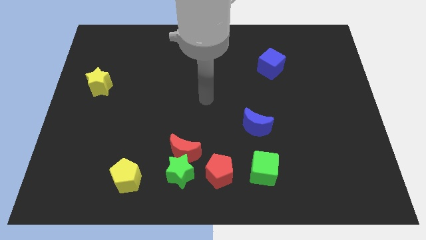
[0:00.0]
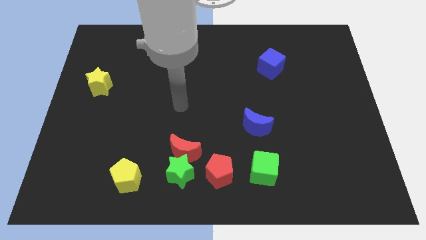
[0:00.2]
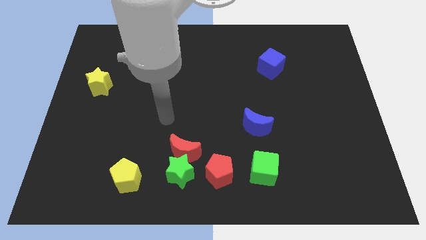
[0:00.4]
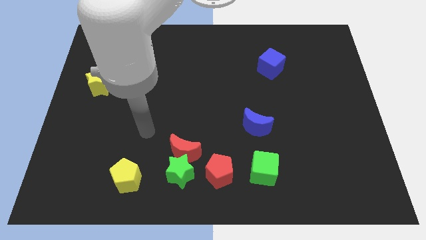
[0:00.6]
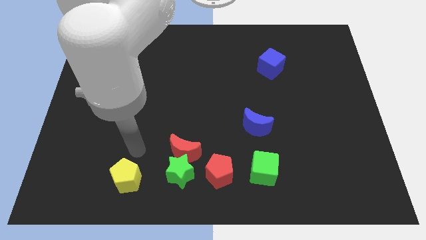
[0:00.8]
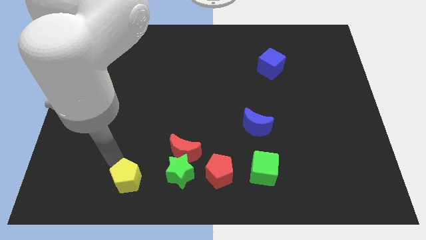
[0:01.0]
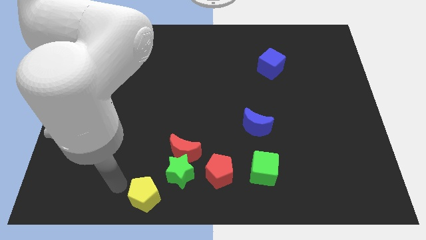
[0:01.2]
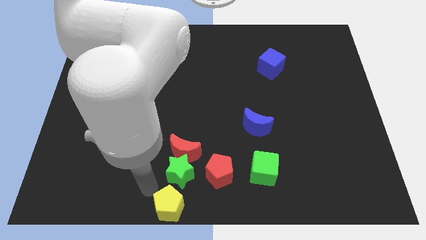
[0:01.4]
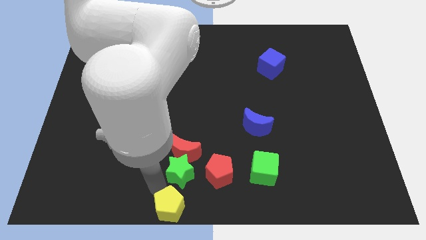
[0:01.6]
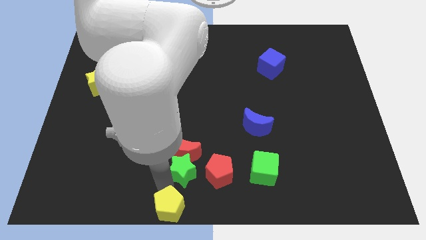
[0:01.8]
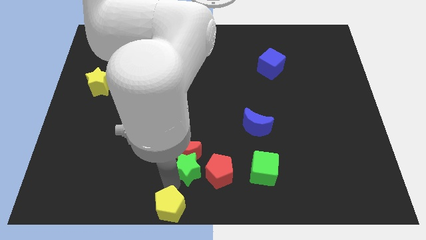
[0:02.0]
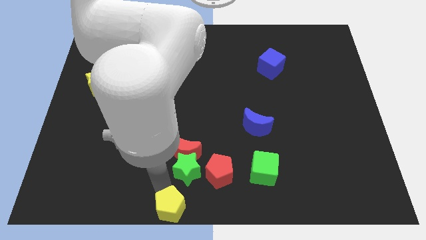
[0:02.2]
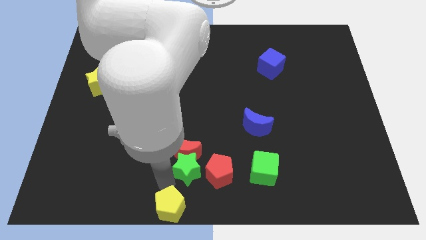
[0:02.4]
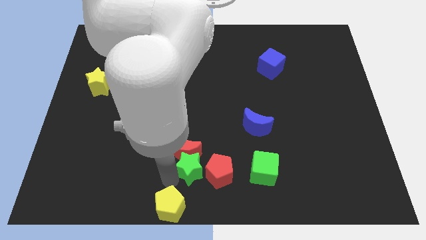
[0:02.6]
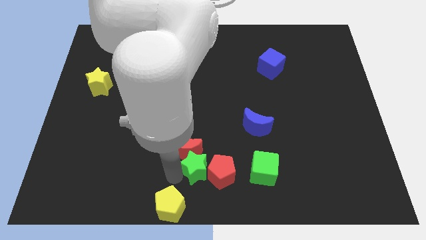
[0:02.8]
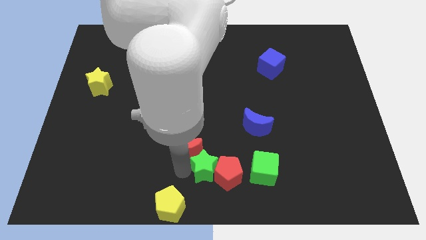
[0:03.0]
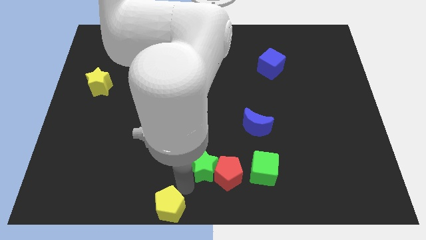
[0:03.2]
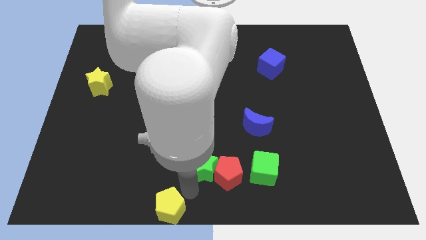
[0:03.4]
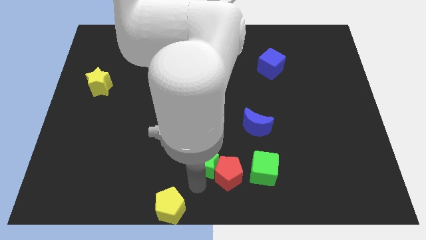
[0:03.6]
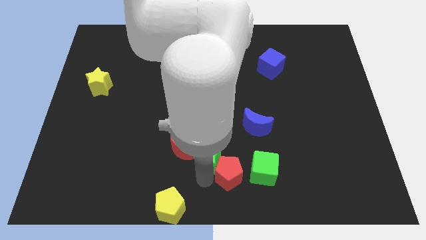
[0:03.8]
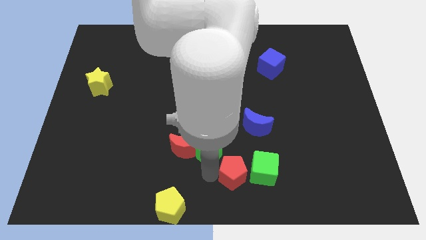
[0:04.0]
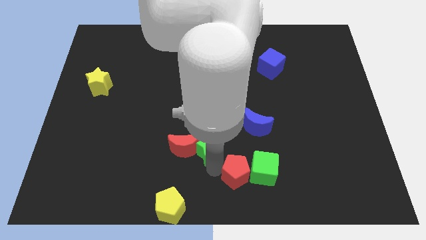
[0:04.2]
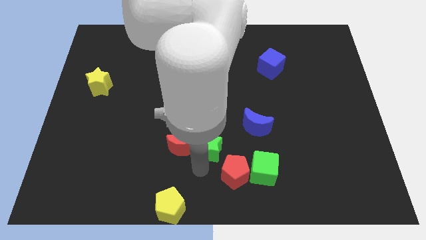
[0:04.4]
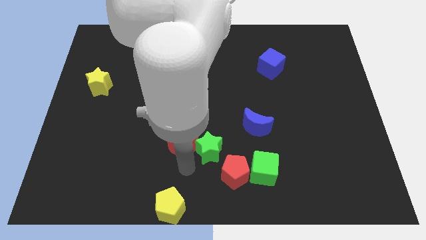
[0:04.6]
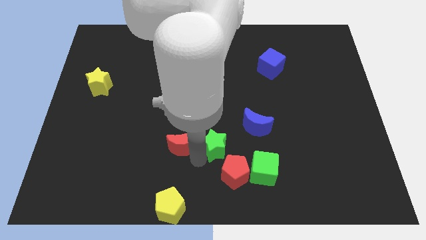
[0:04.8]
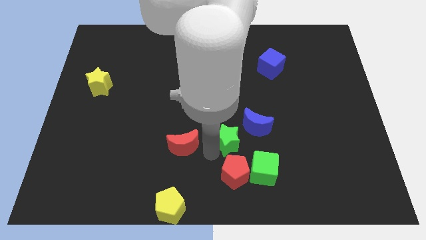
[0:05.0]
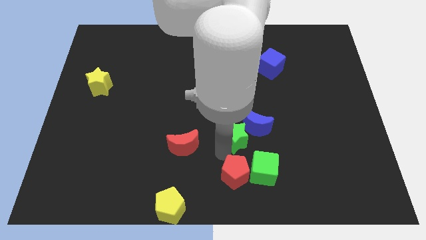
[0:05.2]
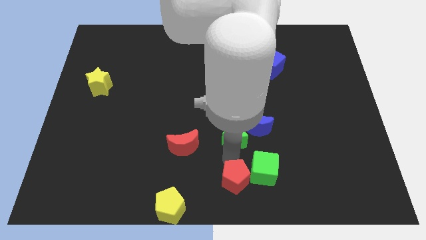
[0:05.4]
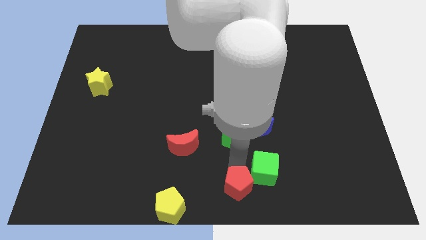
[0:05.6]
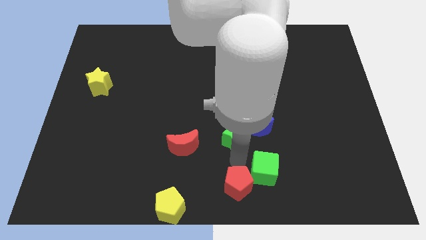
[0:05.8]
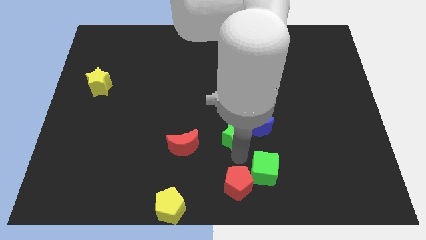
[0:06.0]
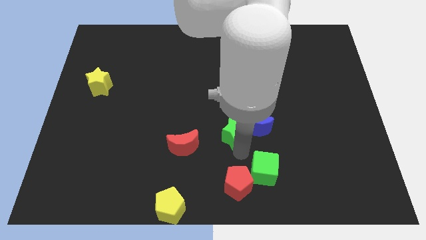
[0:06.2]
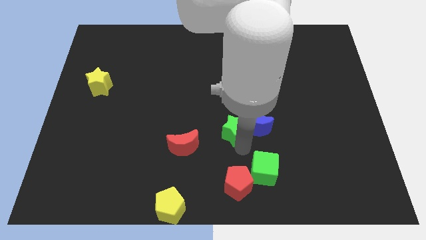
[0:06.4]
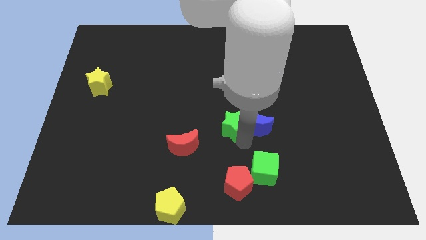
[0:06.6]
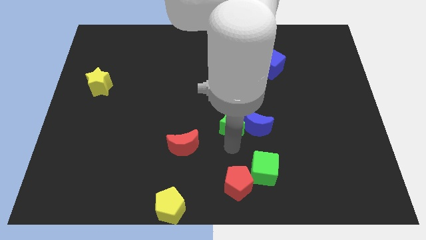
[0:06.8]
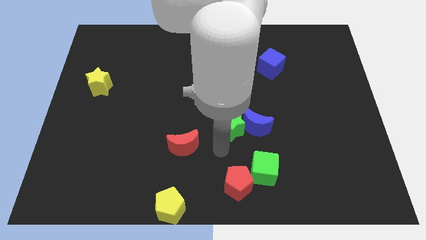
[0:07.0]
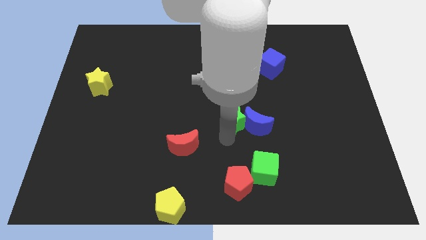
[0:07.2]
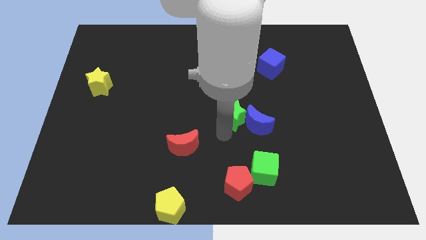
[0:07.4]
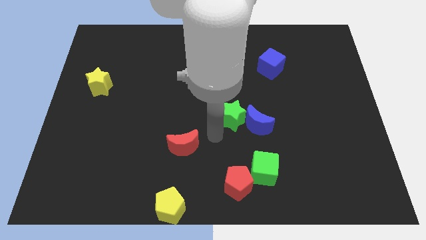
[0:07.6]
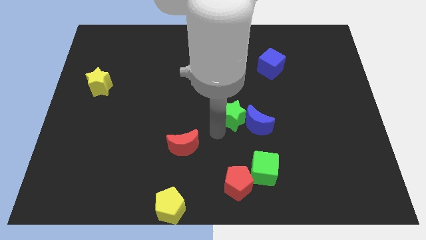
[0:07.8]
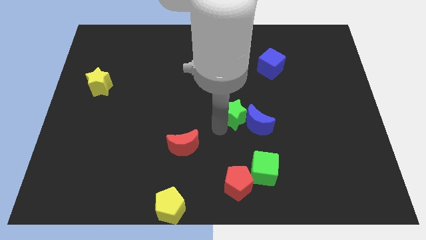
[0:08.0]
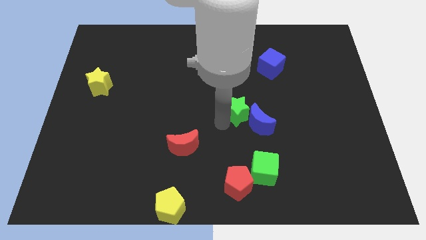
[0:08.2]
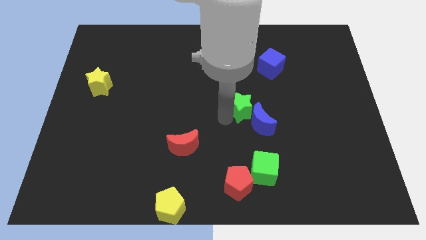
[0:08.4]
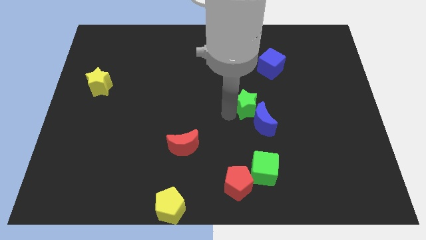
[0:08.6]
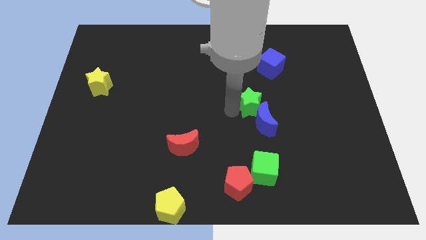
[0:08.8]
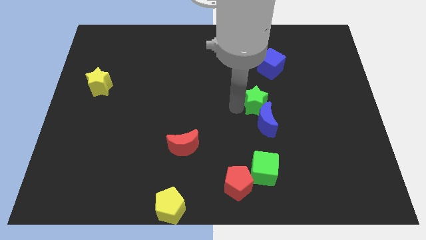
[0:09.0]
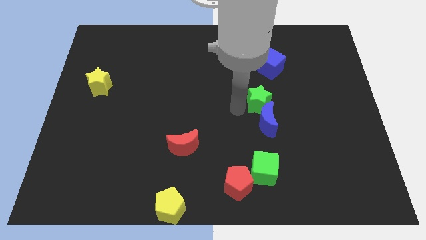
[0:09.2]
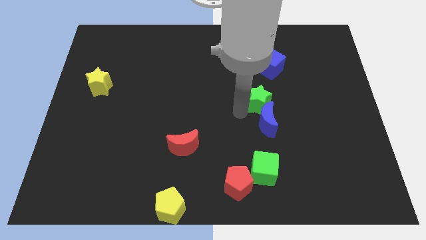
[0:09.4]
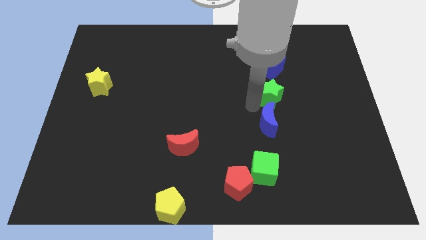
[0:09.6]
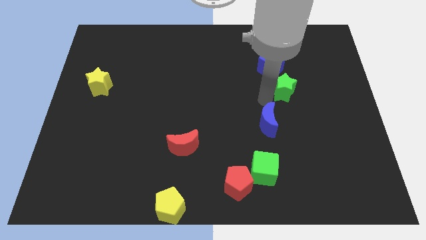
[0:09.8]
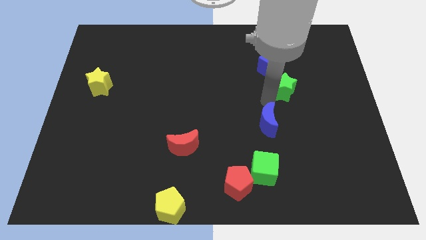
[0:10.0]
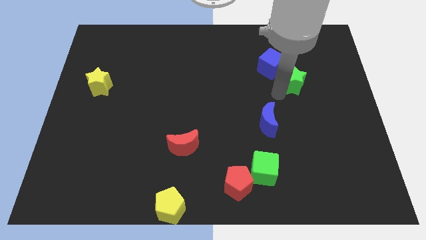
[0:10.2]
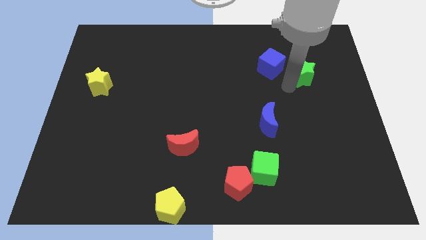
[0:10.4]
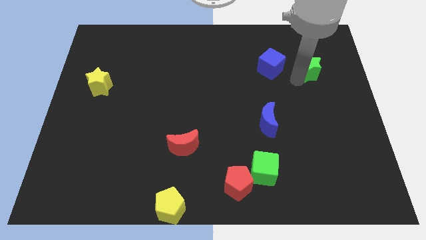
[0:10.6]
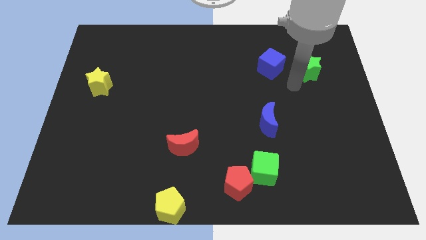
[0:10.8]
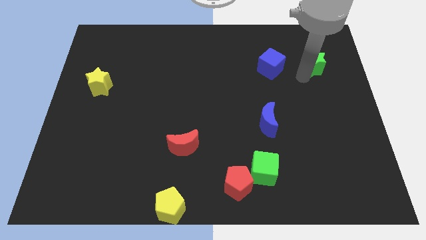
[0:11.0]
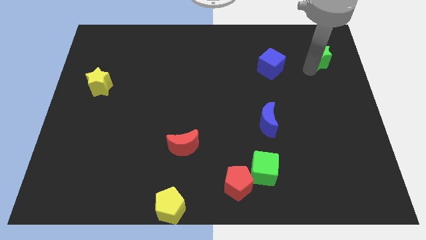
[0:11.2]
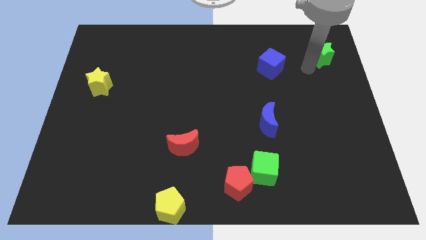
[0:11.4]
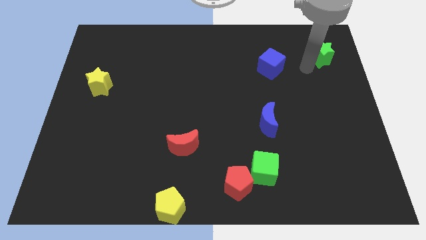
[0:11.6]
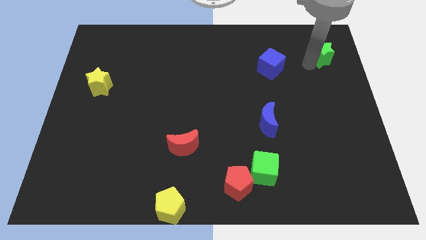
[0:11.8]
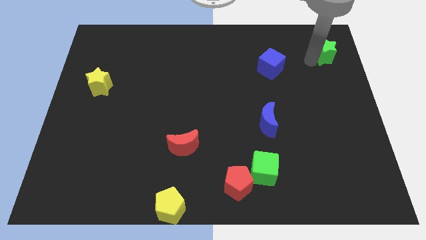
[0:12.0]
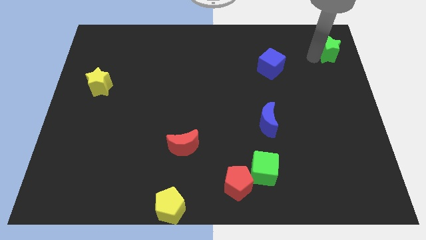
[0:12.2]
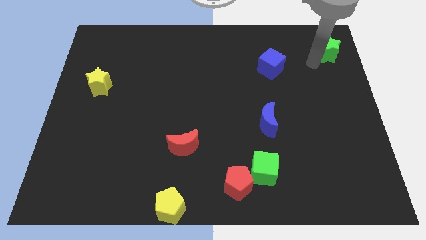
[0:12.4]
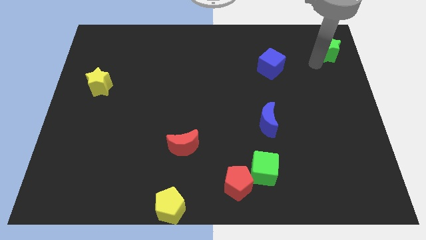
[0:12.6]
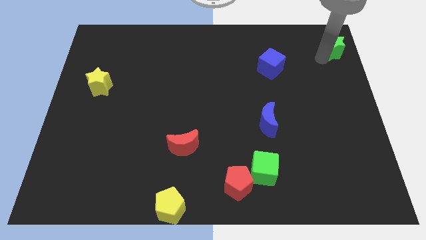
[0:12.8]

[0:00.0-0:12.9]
push the green star to the top right
